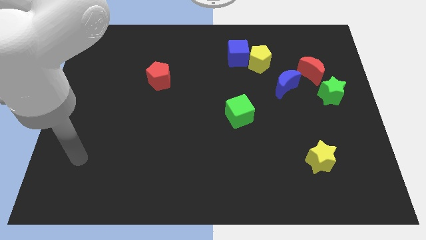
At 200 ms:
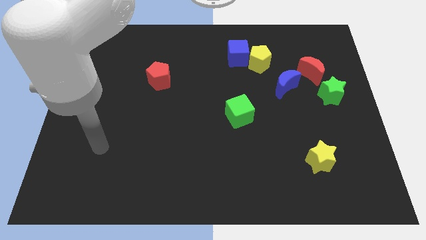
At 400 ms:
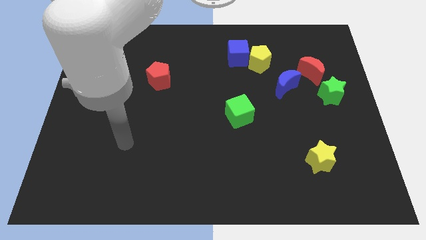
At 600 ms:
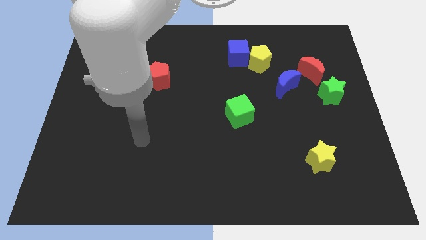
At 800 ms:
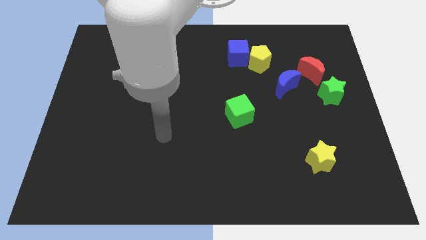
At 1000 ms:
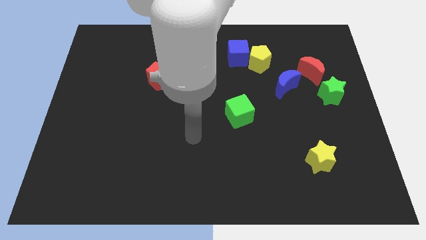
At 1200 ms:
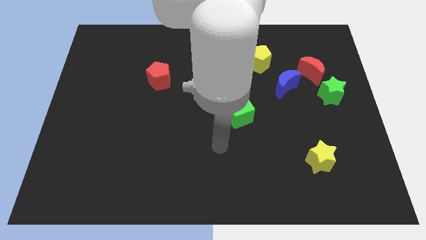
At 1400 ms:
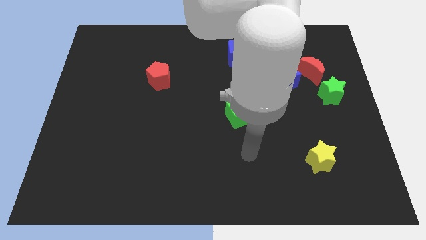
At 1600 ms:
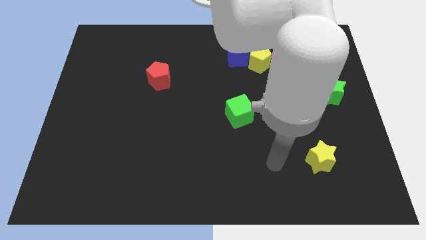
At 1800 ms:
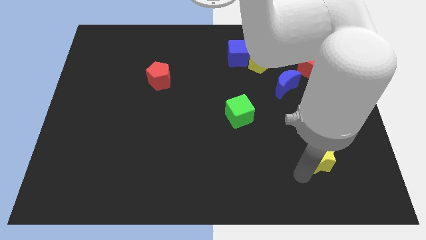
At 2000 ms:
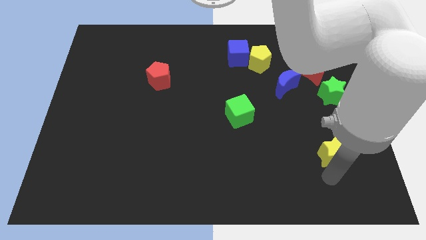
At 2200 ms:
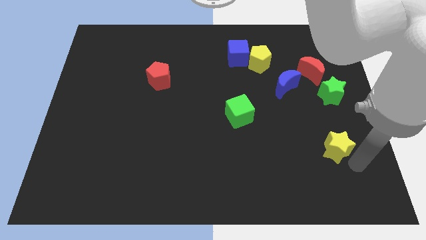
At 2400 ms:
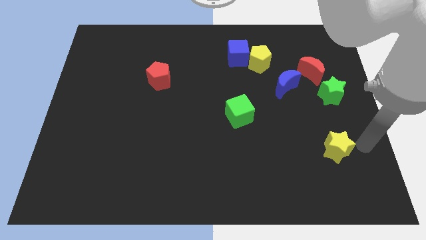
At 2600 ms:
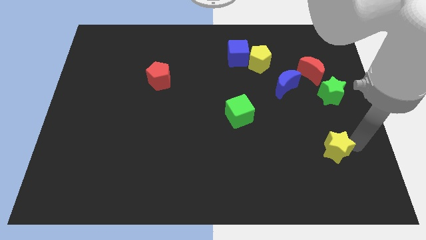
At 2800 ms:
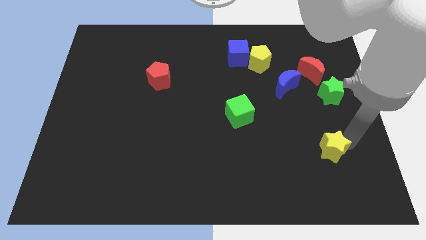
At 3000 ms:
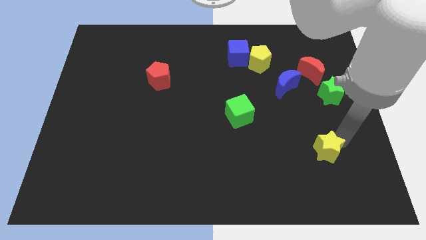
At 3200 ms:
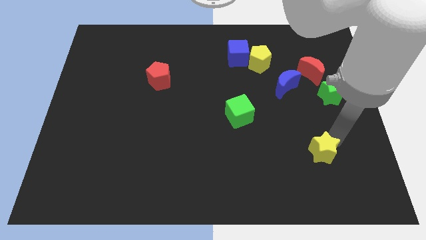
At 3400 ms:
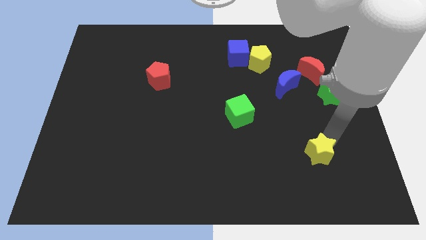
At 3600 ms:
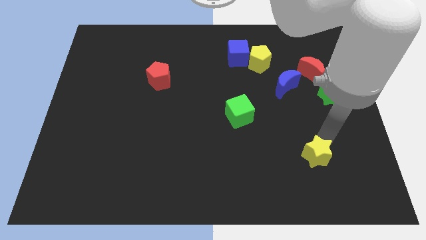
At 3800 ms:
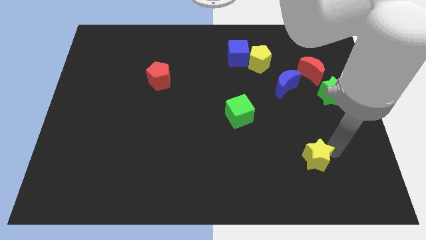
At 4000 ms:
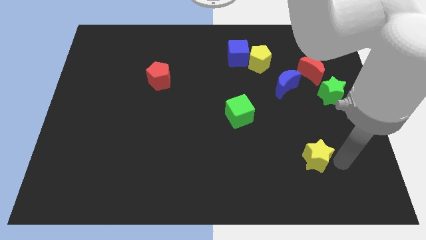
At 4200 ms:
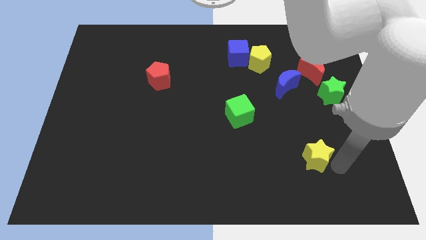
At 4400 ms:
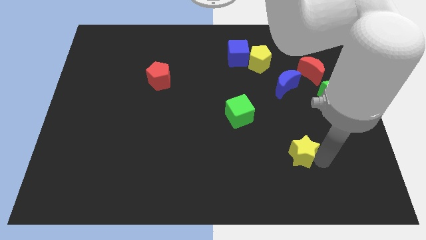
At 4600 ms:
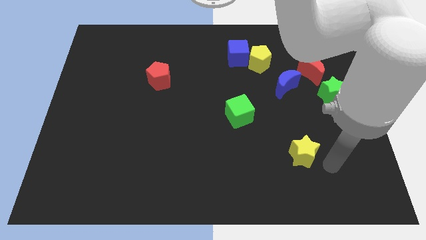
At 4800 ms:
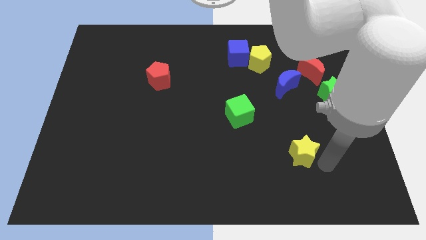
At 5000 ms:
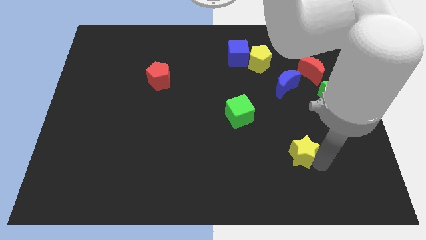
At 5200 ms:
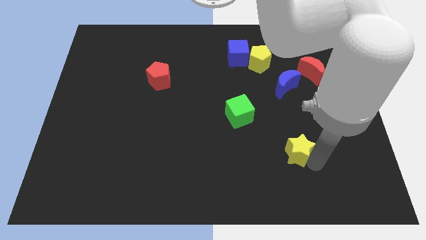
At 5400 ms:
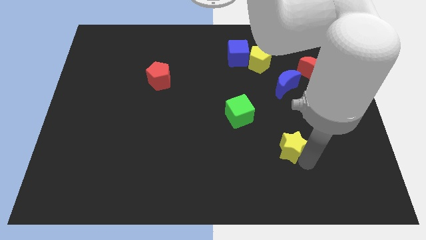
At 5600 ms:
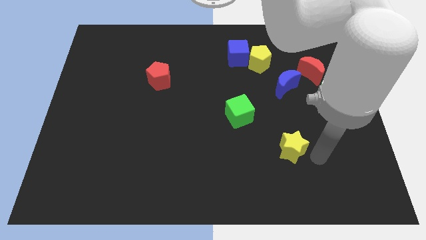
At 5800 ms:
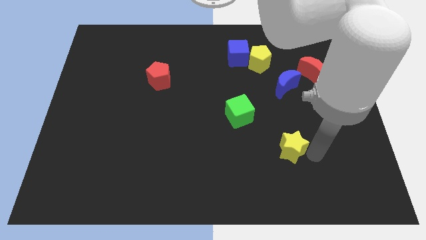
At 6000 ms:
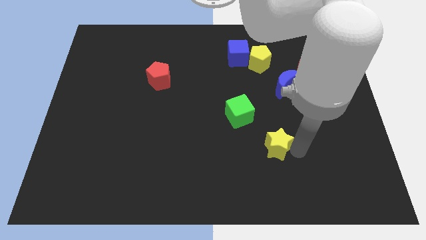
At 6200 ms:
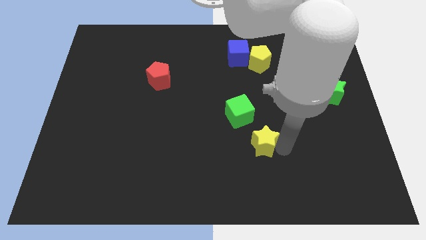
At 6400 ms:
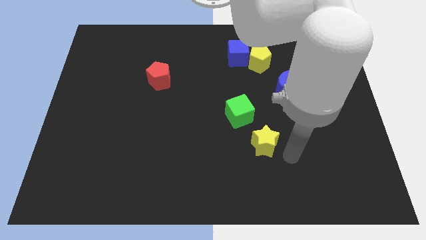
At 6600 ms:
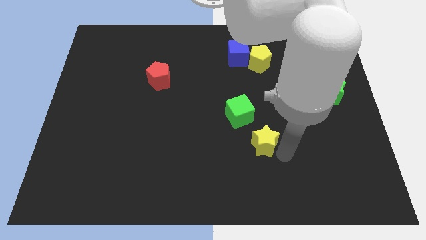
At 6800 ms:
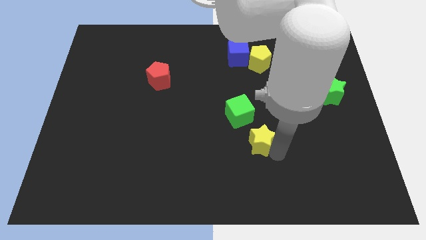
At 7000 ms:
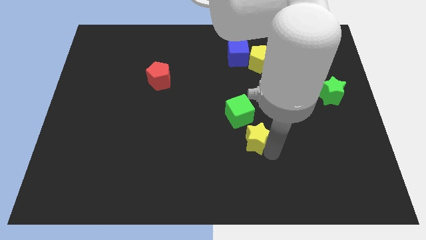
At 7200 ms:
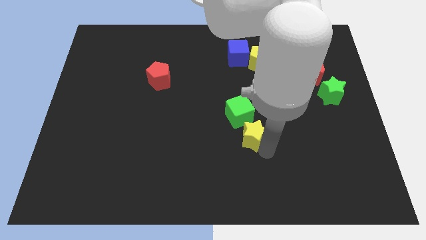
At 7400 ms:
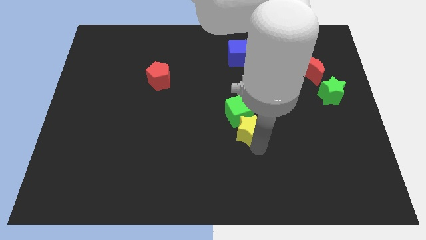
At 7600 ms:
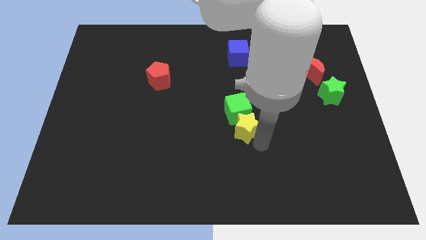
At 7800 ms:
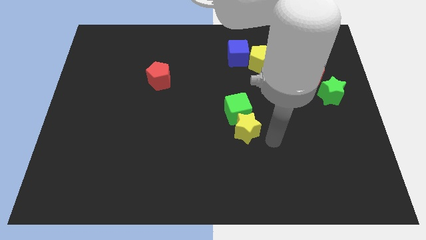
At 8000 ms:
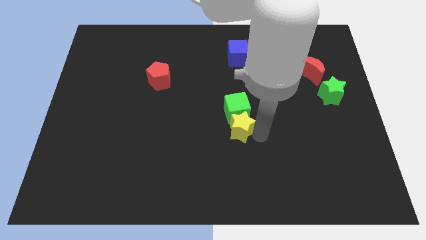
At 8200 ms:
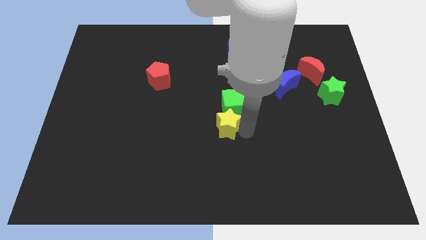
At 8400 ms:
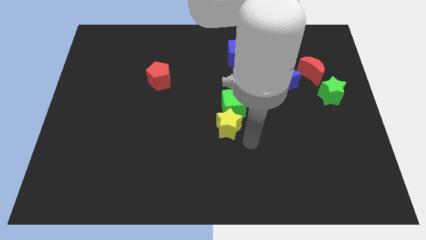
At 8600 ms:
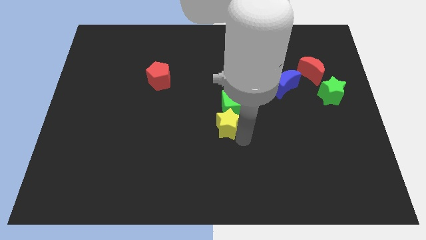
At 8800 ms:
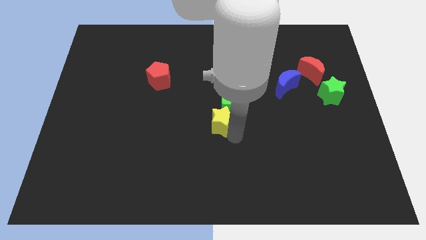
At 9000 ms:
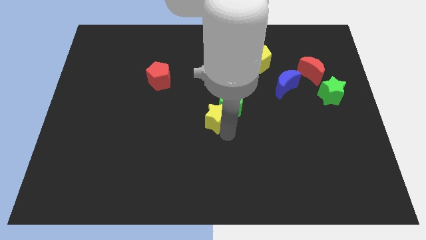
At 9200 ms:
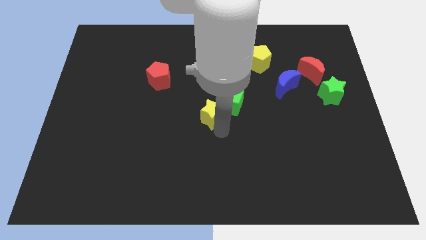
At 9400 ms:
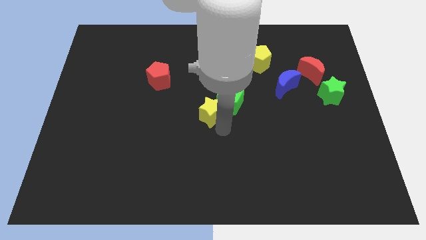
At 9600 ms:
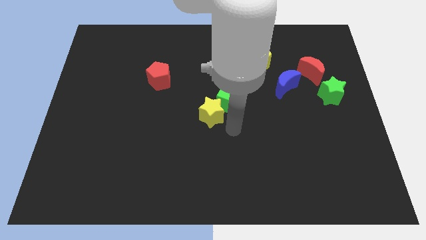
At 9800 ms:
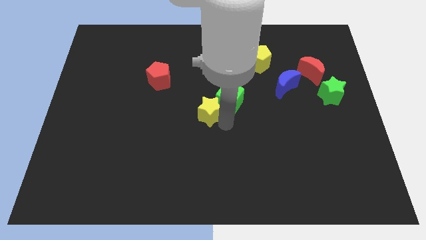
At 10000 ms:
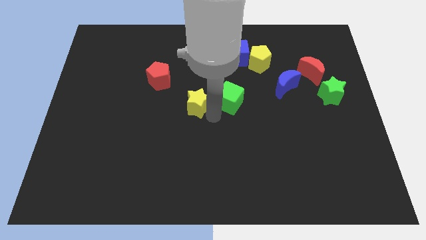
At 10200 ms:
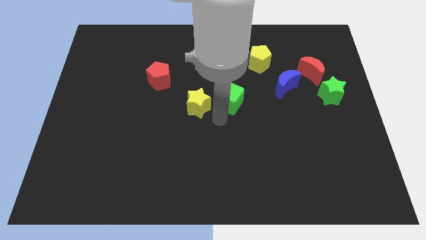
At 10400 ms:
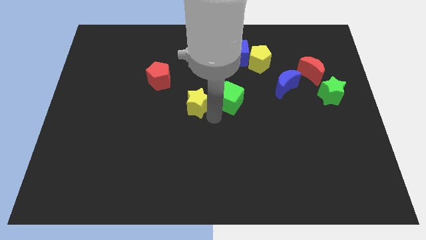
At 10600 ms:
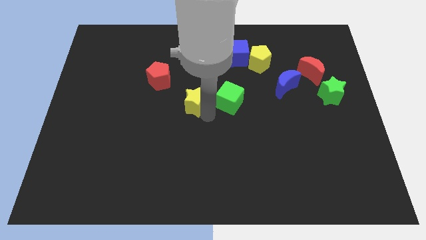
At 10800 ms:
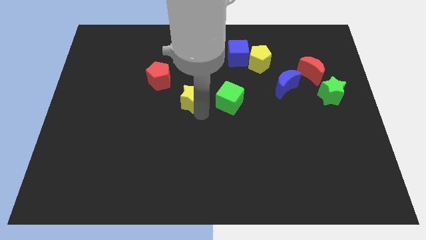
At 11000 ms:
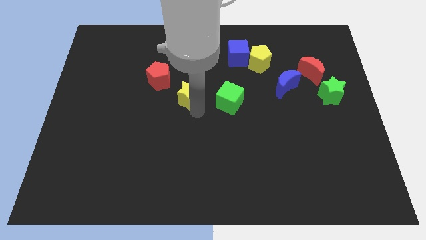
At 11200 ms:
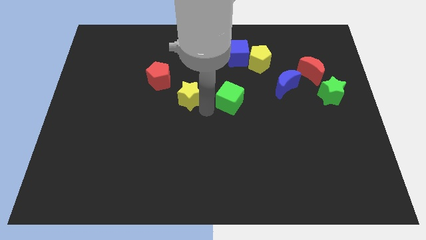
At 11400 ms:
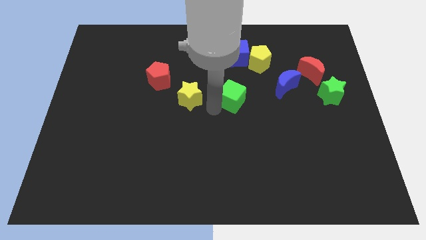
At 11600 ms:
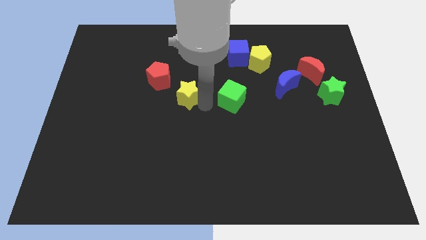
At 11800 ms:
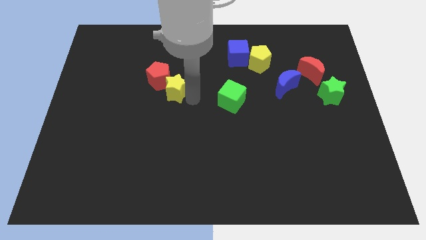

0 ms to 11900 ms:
move the yellow star to the red pentagon

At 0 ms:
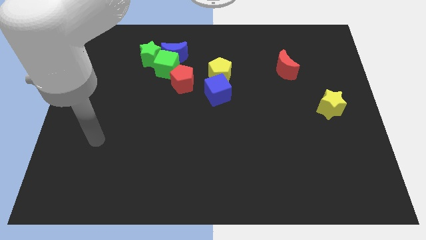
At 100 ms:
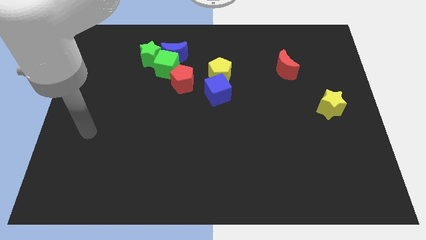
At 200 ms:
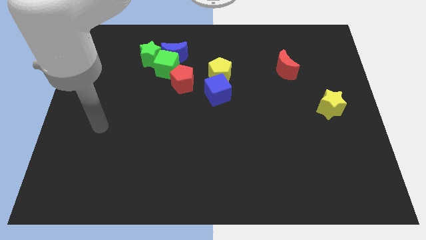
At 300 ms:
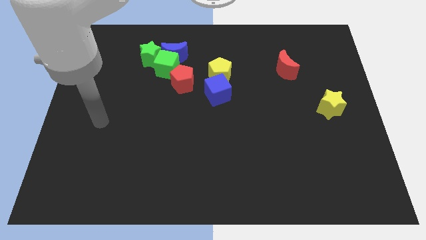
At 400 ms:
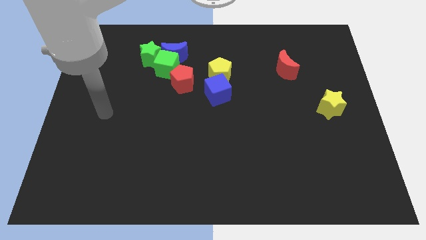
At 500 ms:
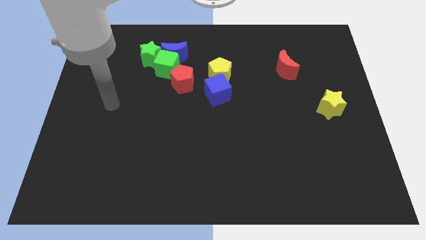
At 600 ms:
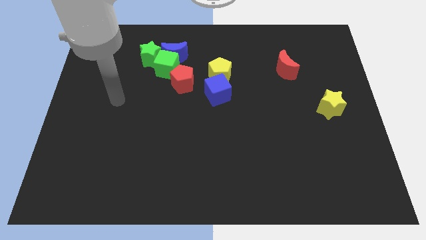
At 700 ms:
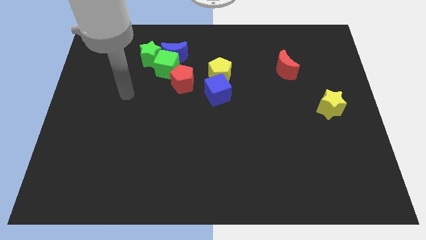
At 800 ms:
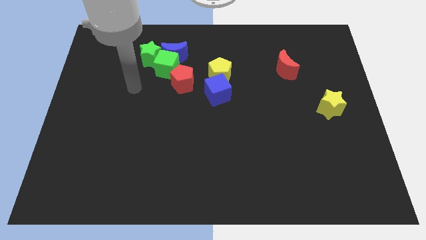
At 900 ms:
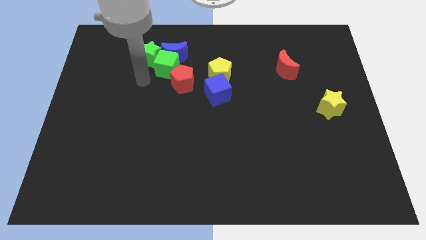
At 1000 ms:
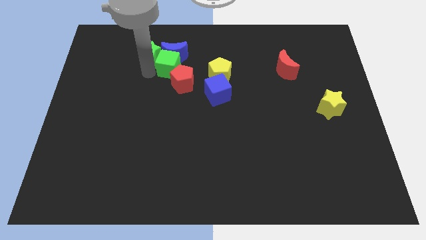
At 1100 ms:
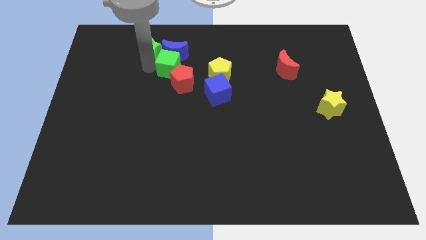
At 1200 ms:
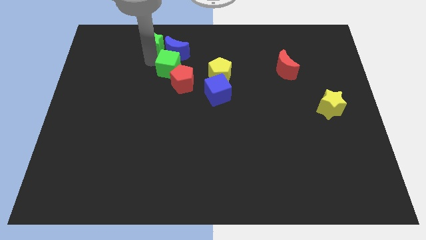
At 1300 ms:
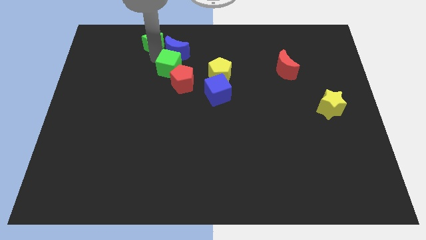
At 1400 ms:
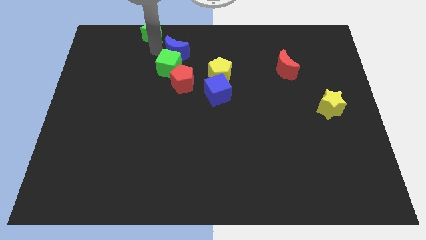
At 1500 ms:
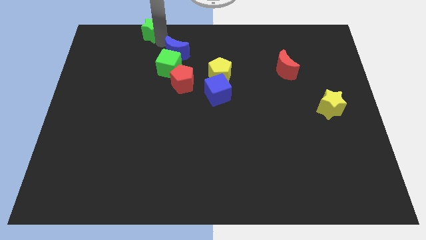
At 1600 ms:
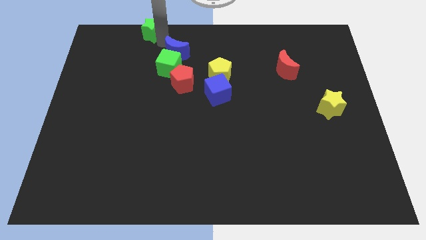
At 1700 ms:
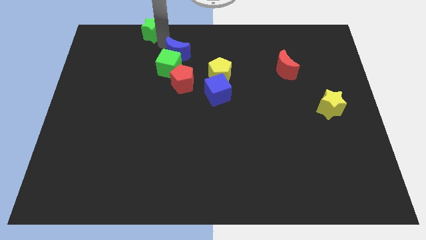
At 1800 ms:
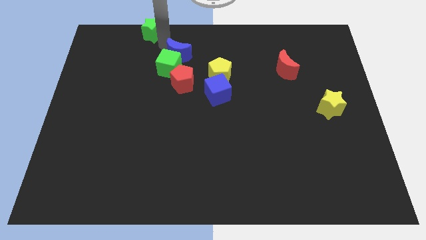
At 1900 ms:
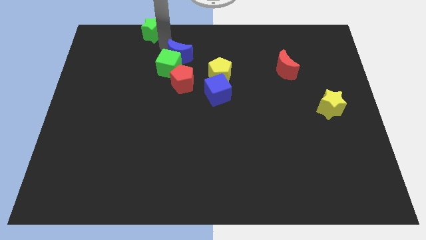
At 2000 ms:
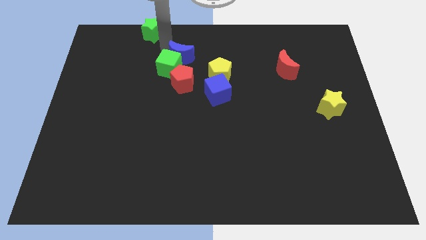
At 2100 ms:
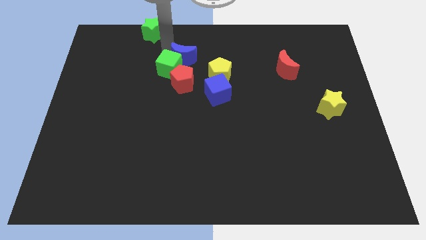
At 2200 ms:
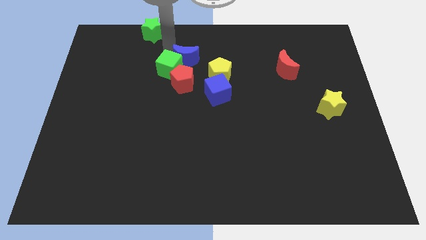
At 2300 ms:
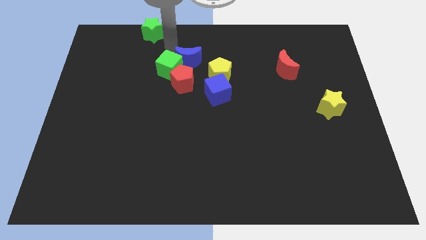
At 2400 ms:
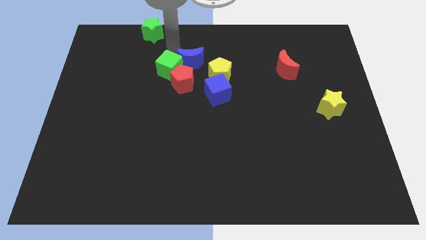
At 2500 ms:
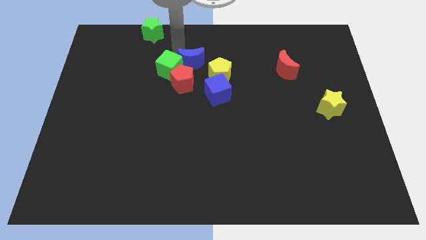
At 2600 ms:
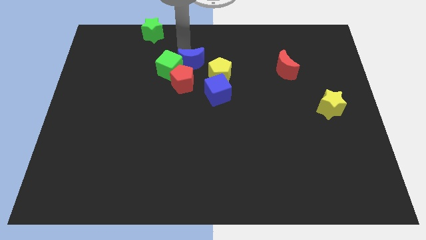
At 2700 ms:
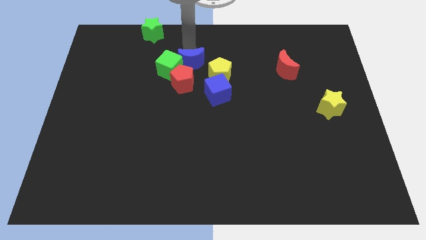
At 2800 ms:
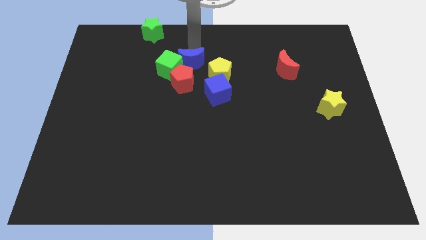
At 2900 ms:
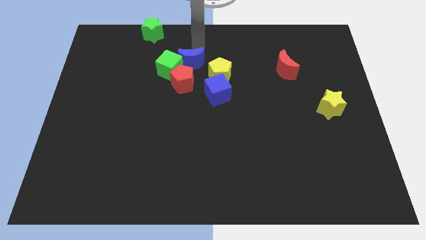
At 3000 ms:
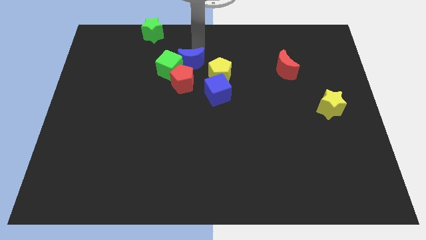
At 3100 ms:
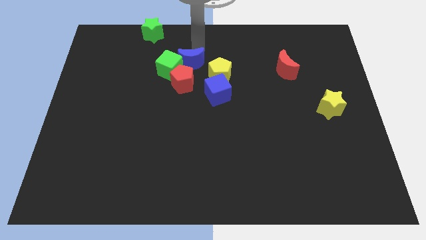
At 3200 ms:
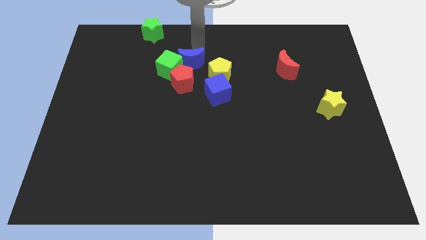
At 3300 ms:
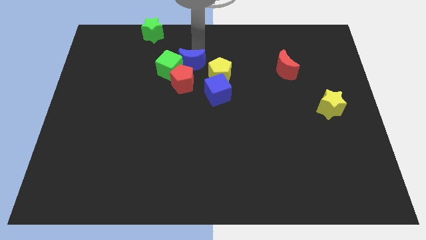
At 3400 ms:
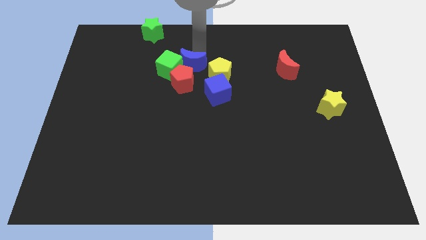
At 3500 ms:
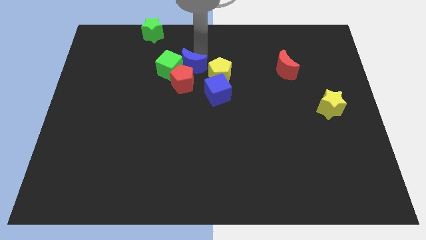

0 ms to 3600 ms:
put the blue moon close to the red pentagon
